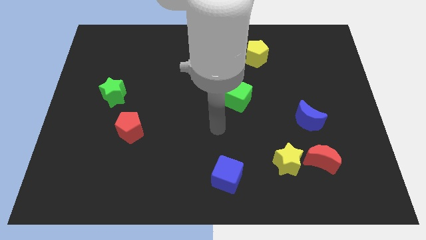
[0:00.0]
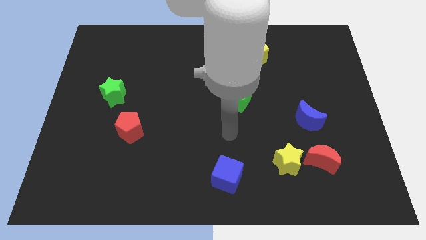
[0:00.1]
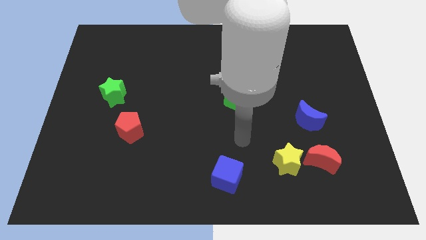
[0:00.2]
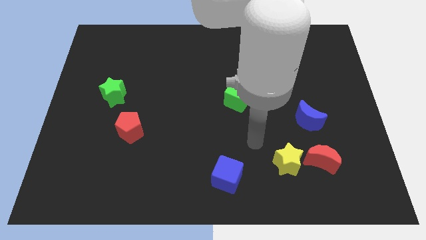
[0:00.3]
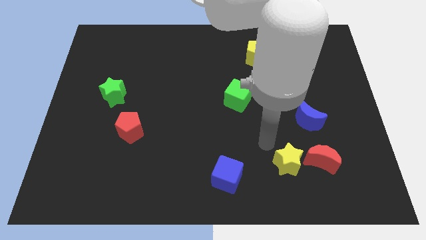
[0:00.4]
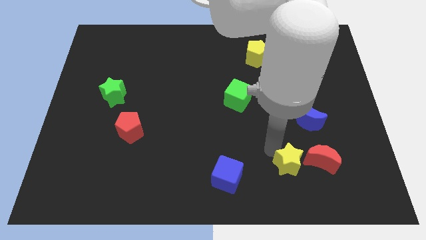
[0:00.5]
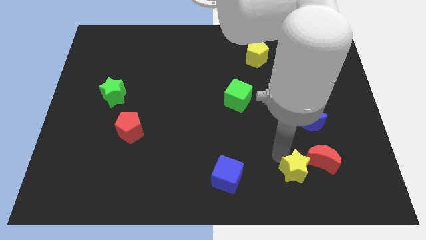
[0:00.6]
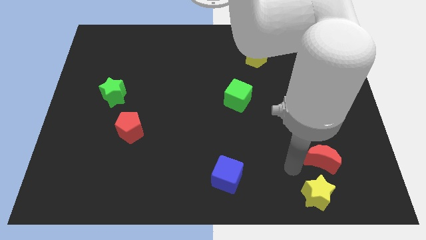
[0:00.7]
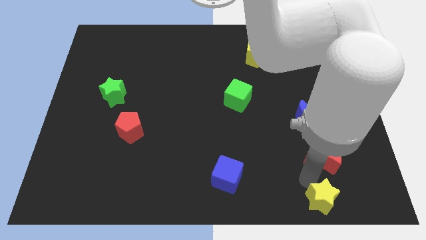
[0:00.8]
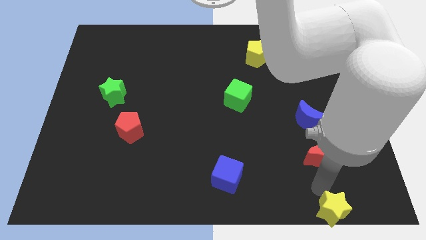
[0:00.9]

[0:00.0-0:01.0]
separate the red moon from the yellow star

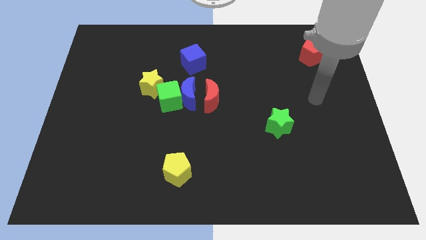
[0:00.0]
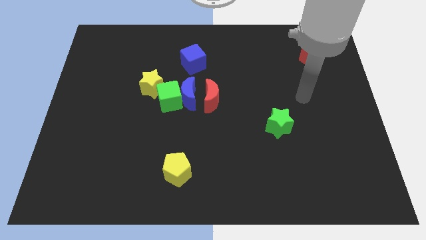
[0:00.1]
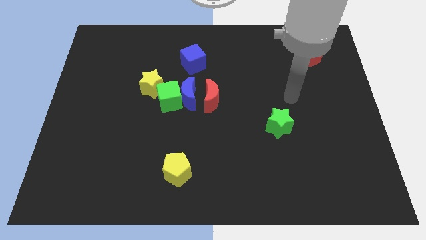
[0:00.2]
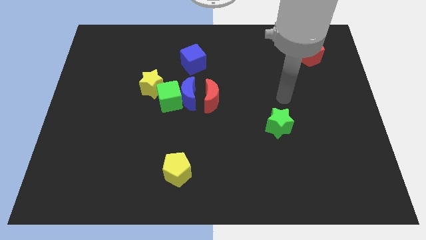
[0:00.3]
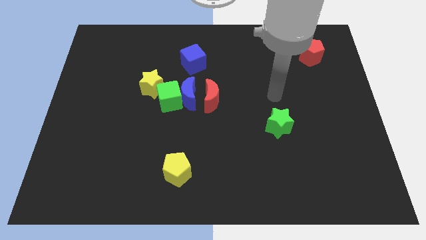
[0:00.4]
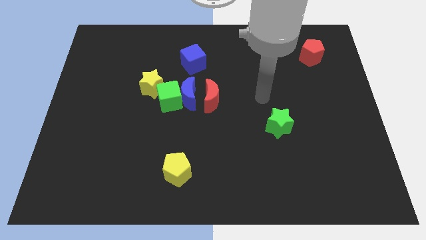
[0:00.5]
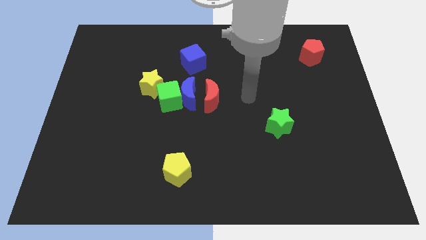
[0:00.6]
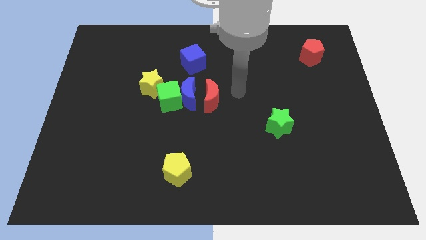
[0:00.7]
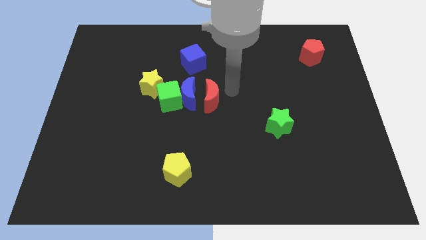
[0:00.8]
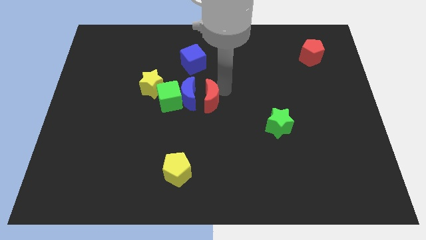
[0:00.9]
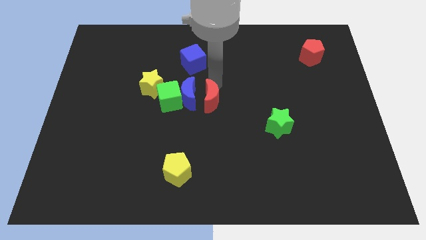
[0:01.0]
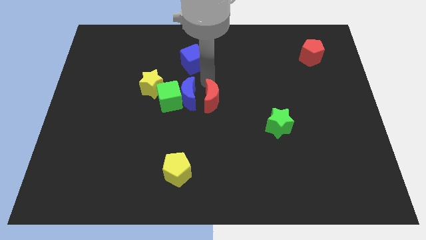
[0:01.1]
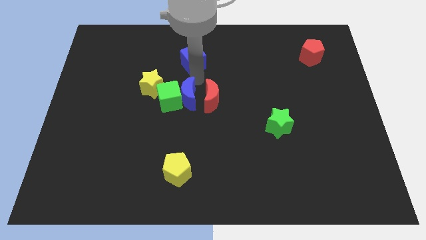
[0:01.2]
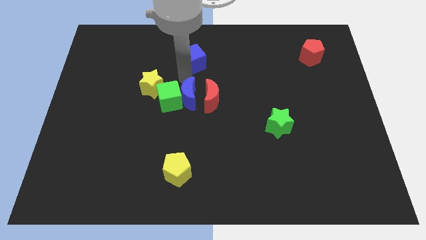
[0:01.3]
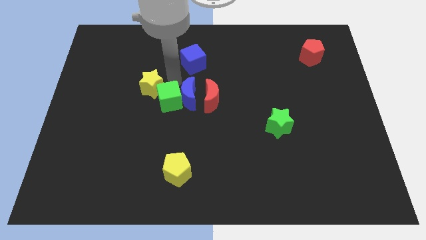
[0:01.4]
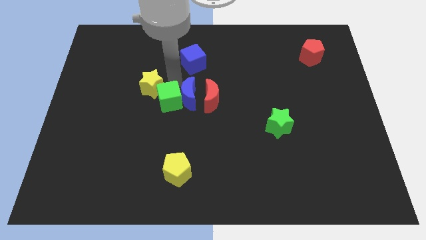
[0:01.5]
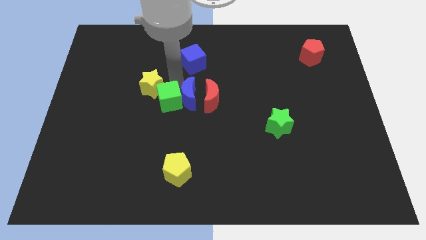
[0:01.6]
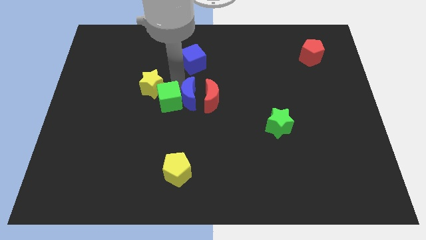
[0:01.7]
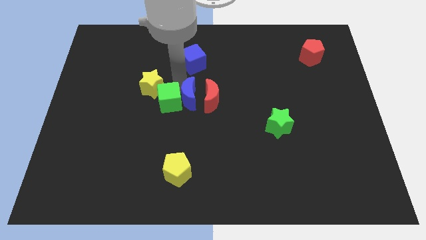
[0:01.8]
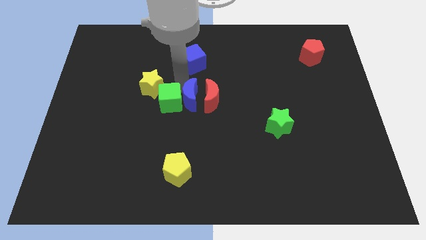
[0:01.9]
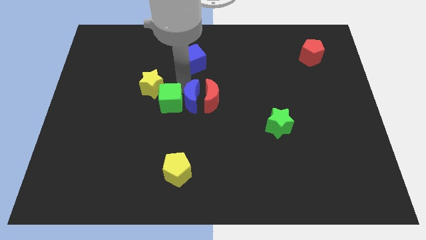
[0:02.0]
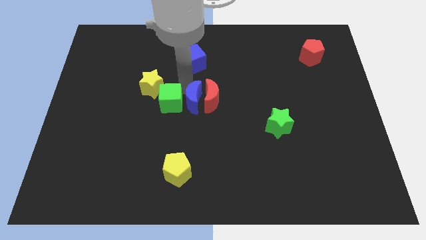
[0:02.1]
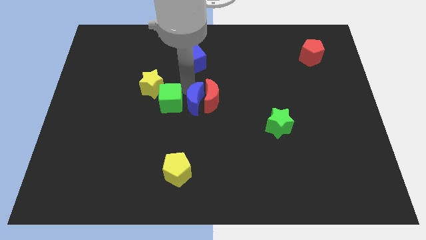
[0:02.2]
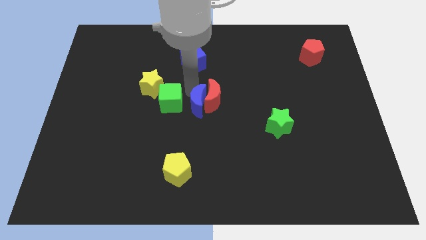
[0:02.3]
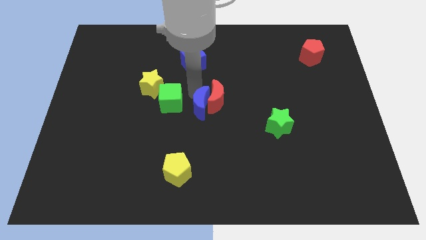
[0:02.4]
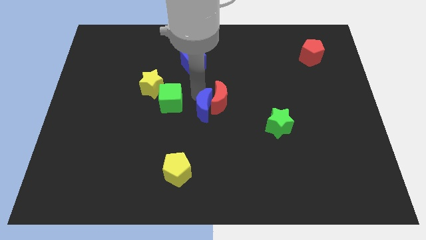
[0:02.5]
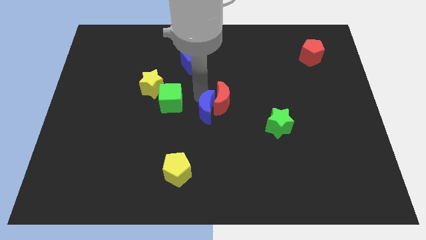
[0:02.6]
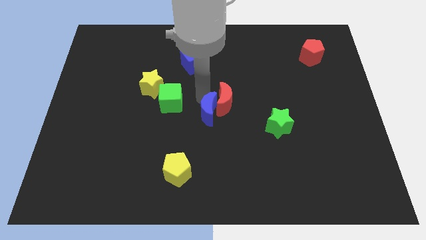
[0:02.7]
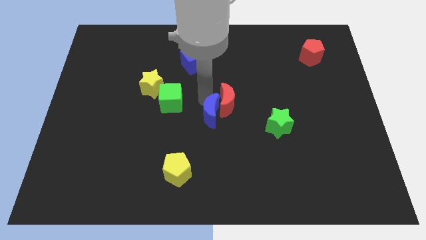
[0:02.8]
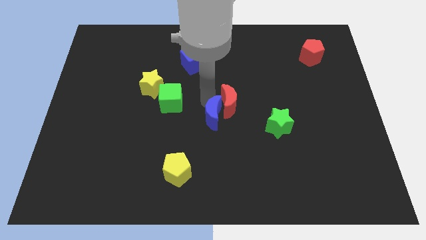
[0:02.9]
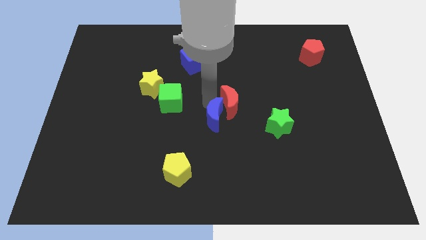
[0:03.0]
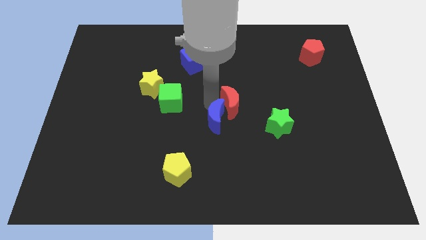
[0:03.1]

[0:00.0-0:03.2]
separate the blue moon from the green cube, red moon, and yellow star

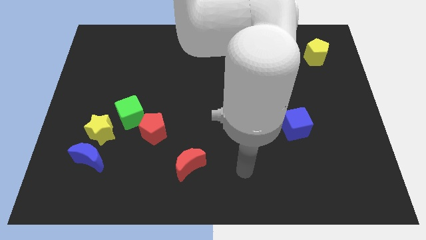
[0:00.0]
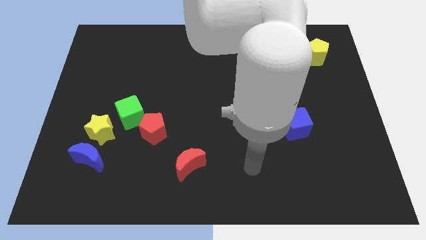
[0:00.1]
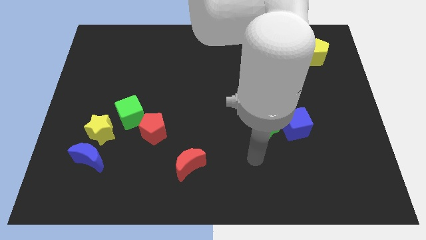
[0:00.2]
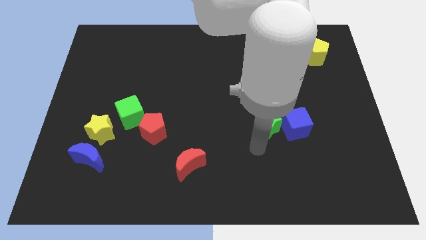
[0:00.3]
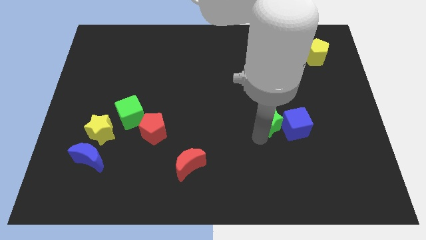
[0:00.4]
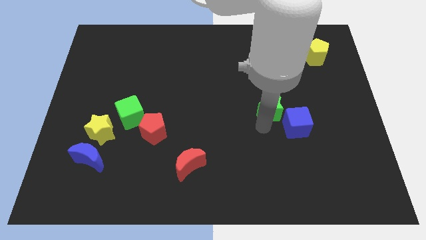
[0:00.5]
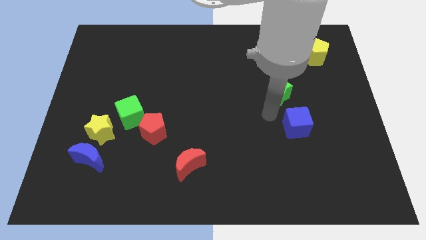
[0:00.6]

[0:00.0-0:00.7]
move the blue cube away from the green star

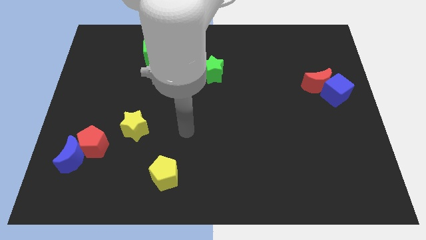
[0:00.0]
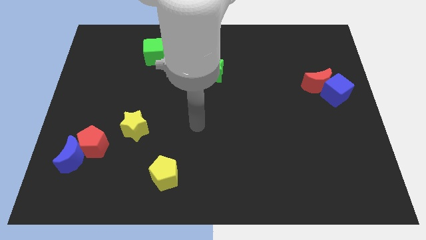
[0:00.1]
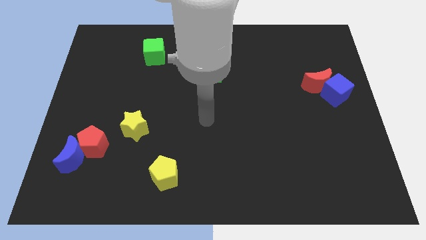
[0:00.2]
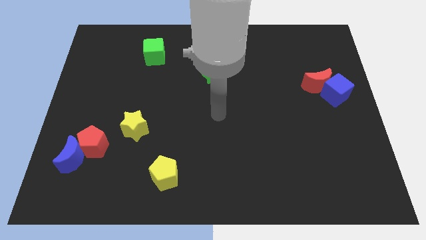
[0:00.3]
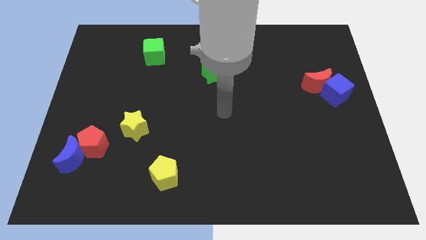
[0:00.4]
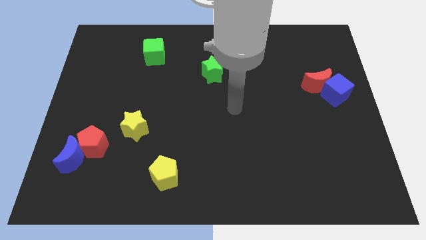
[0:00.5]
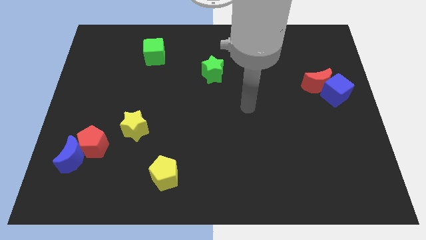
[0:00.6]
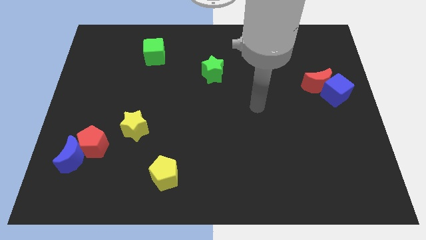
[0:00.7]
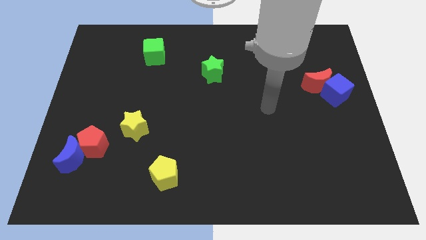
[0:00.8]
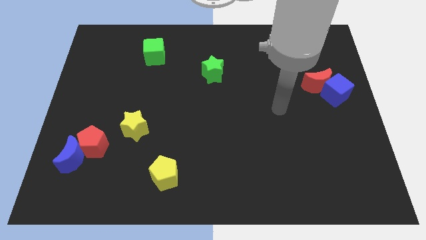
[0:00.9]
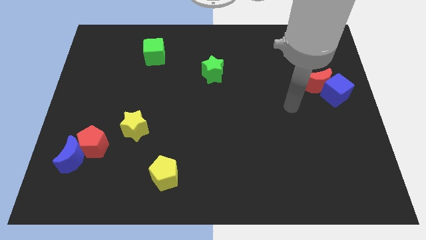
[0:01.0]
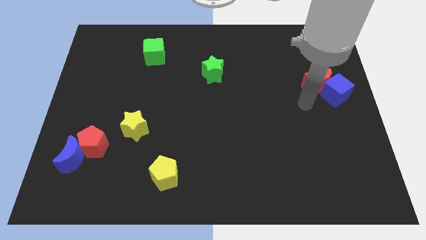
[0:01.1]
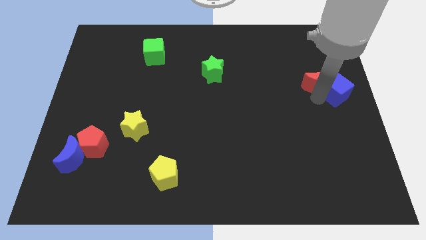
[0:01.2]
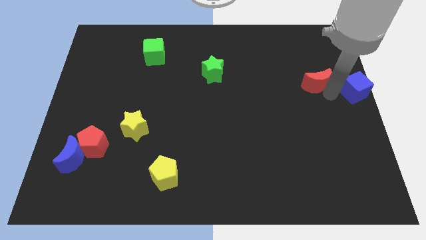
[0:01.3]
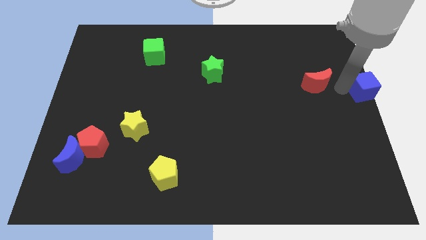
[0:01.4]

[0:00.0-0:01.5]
separate the red moon from the blue cube

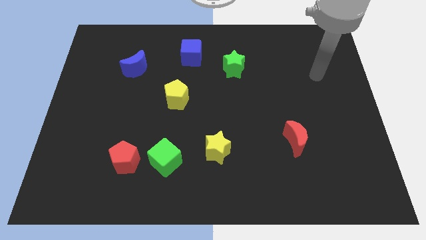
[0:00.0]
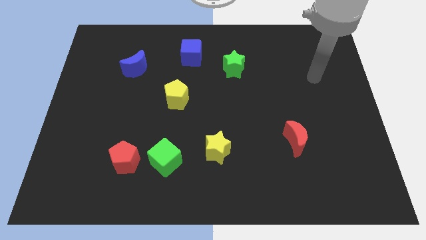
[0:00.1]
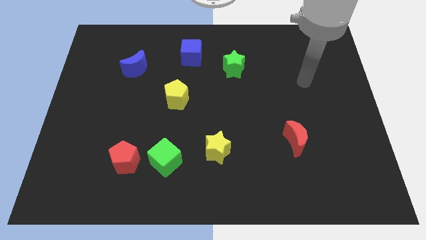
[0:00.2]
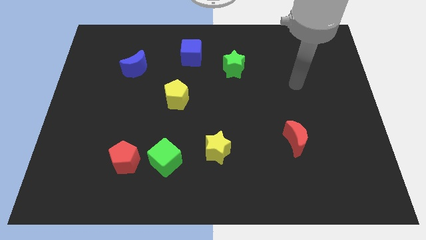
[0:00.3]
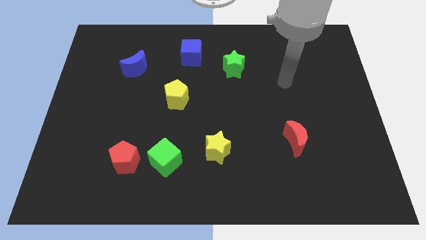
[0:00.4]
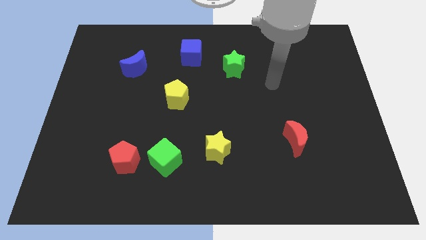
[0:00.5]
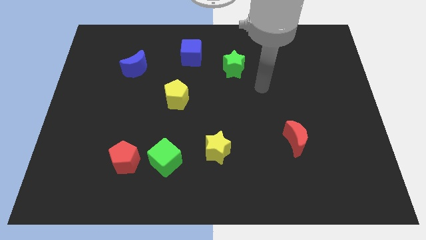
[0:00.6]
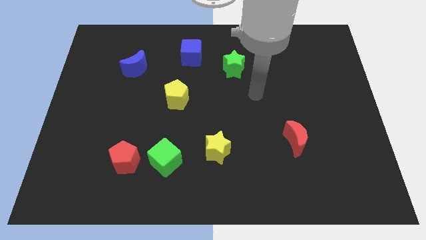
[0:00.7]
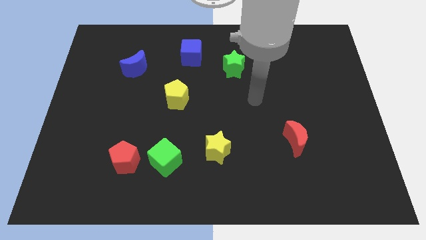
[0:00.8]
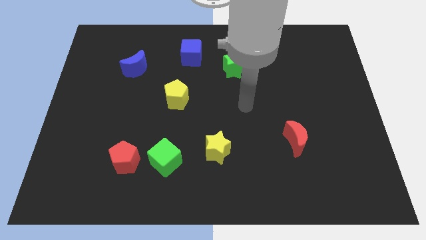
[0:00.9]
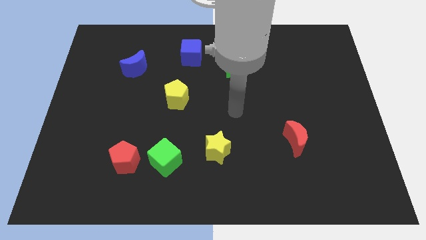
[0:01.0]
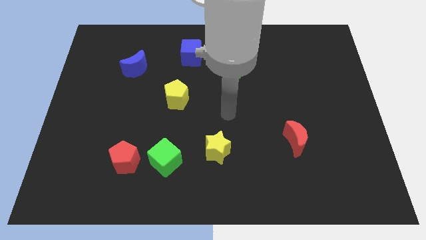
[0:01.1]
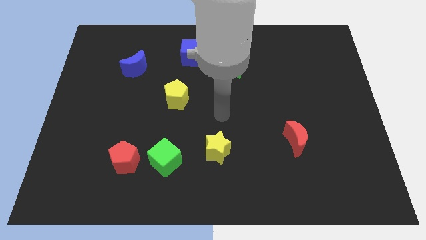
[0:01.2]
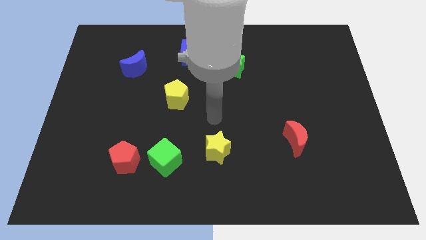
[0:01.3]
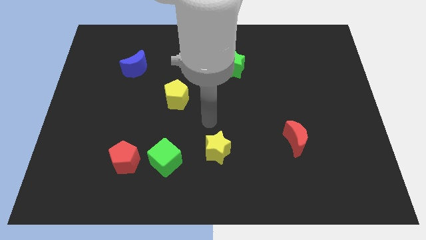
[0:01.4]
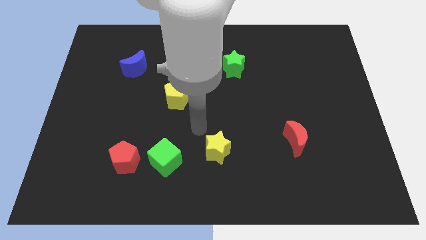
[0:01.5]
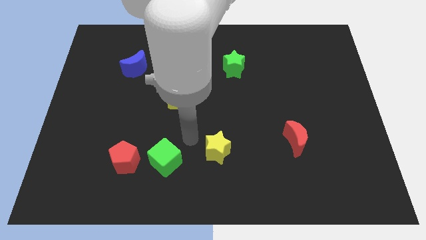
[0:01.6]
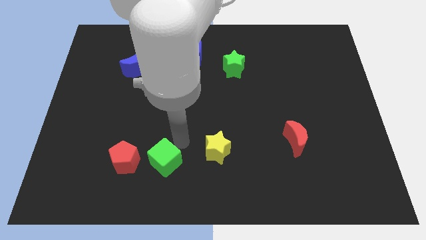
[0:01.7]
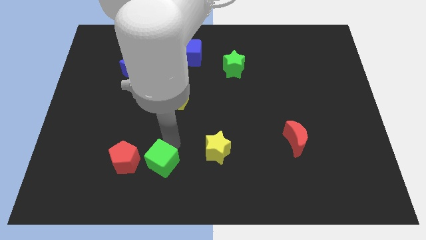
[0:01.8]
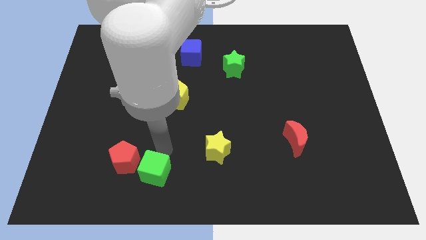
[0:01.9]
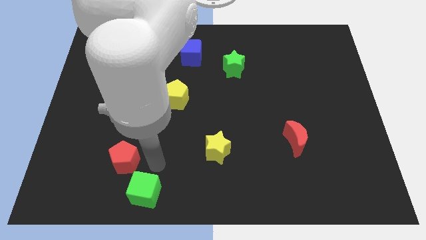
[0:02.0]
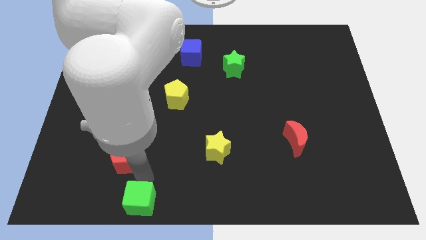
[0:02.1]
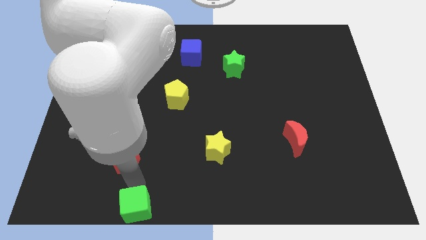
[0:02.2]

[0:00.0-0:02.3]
pull the red pentagon apart from the green cube

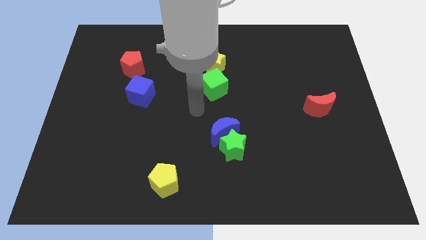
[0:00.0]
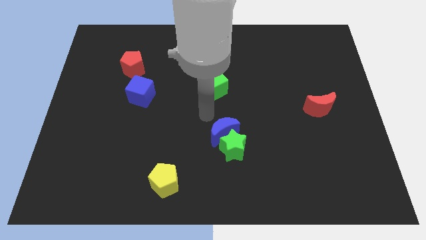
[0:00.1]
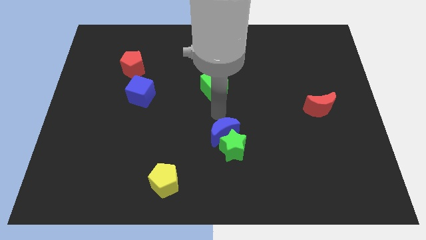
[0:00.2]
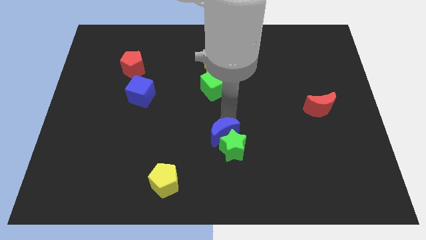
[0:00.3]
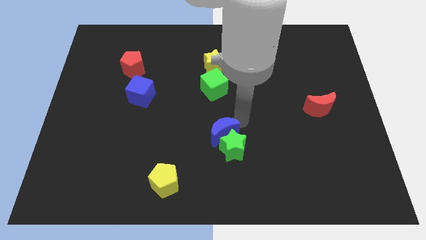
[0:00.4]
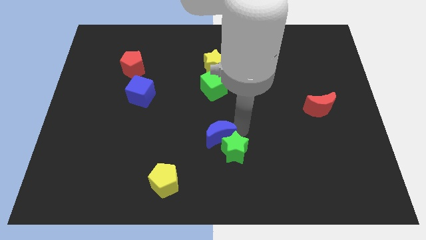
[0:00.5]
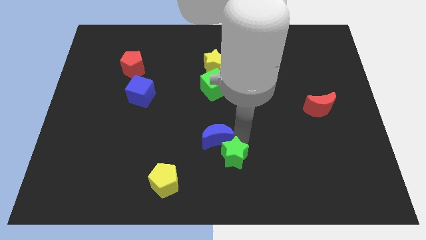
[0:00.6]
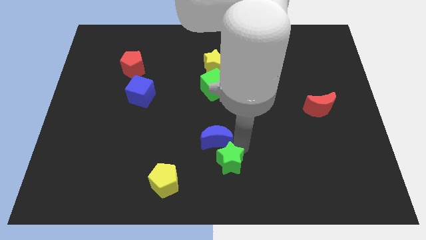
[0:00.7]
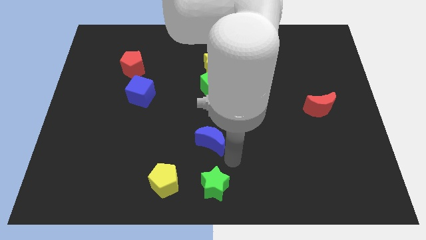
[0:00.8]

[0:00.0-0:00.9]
separate the blue moon from the green star
